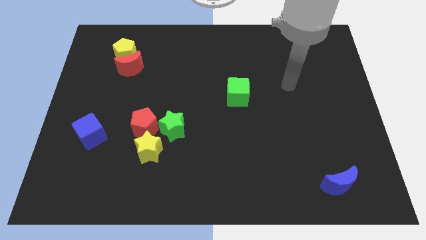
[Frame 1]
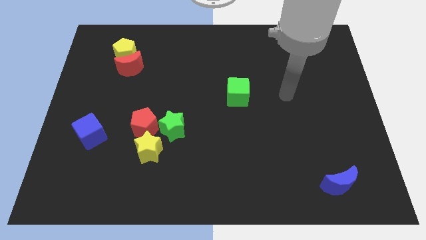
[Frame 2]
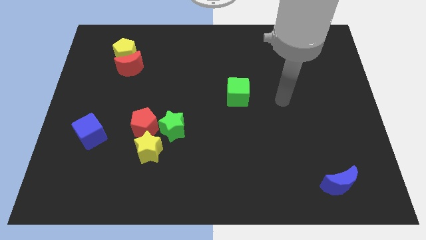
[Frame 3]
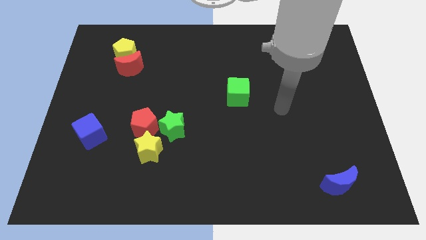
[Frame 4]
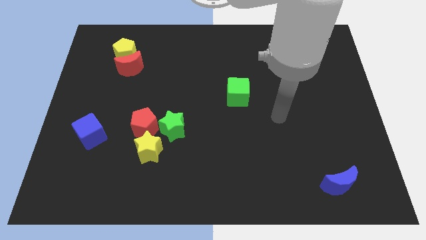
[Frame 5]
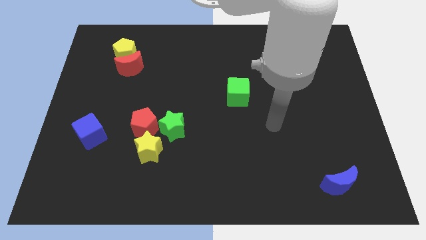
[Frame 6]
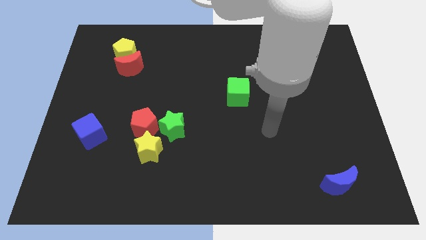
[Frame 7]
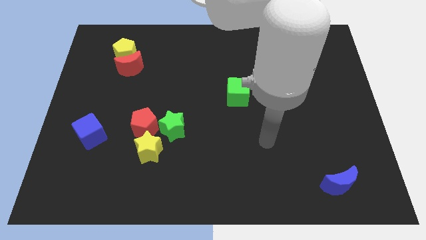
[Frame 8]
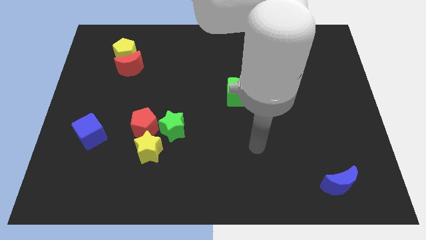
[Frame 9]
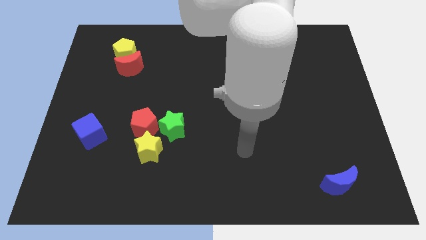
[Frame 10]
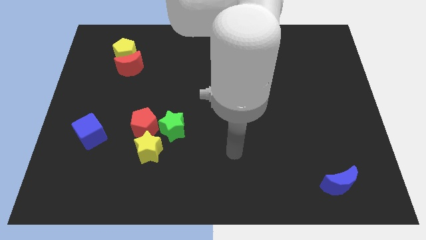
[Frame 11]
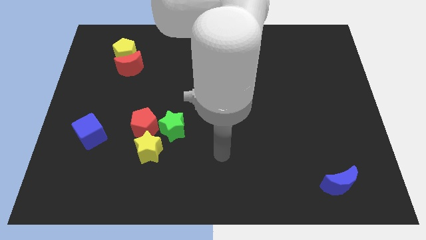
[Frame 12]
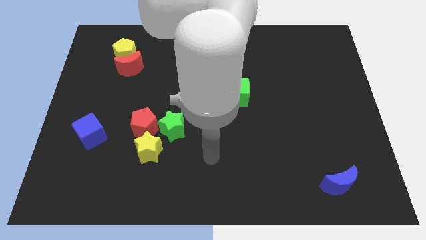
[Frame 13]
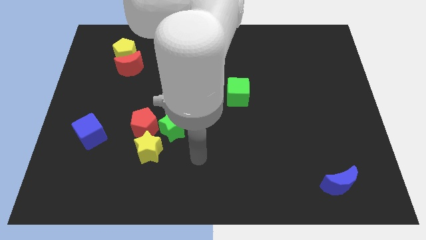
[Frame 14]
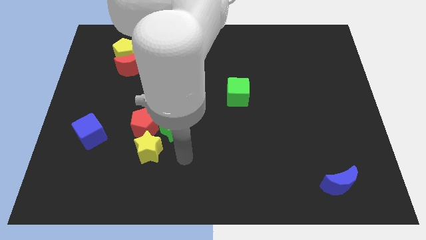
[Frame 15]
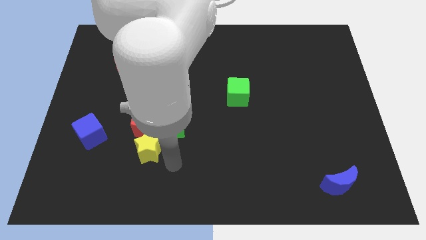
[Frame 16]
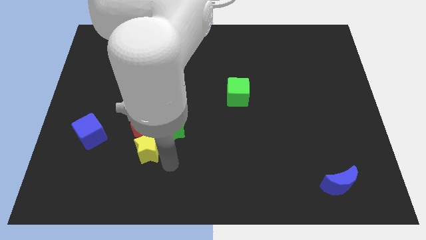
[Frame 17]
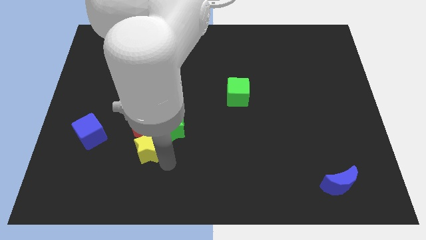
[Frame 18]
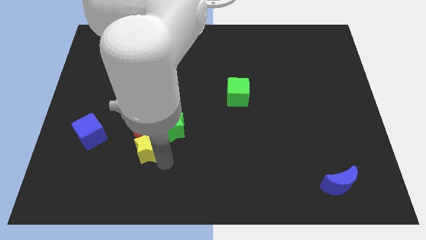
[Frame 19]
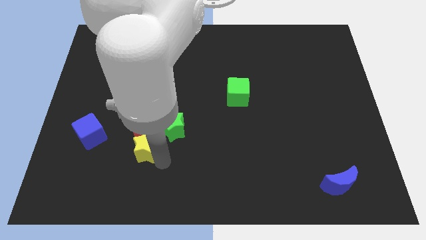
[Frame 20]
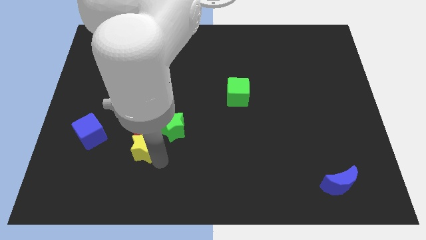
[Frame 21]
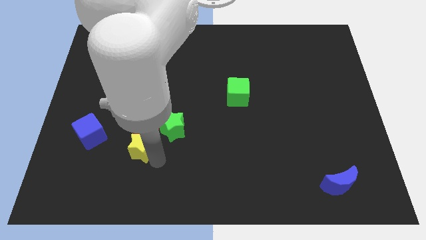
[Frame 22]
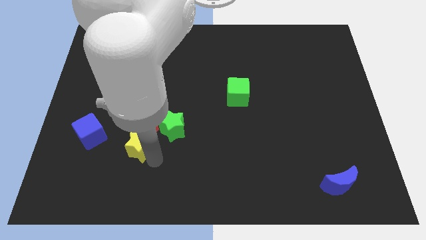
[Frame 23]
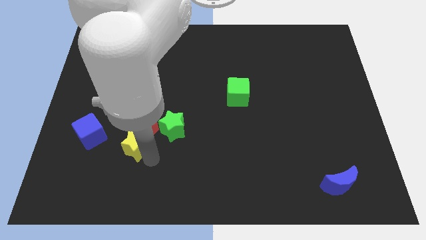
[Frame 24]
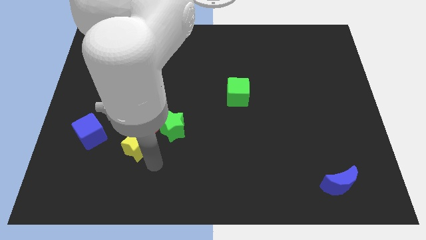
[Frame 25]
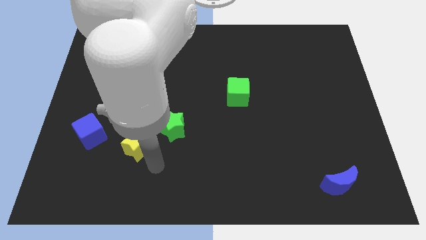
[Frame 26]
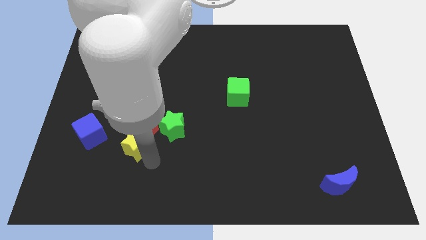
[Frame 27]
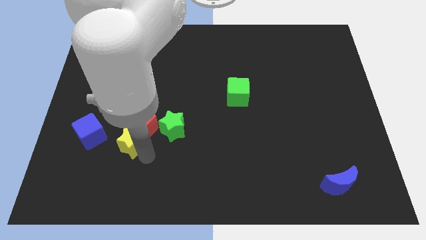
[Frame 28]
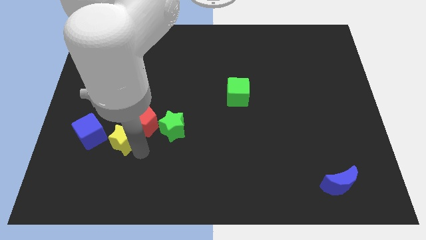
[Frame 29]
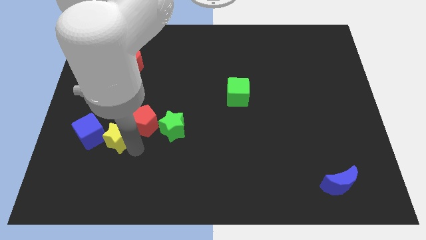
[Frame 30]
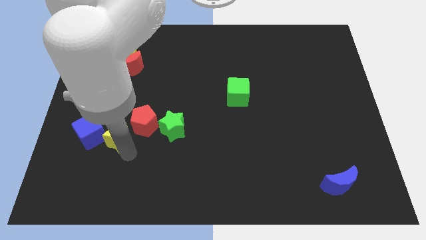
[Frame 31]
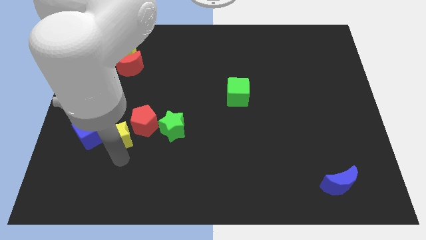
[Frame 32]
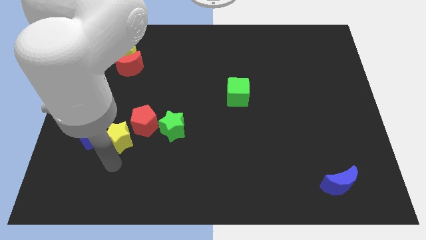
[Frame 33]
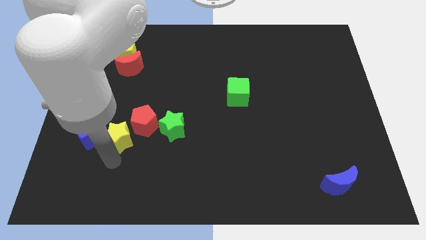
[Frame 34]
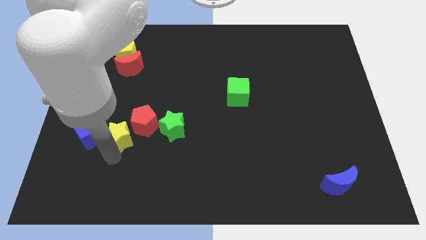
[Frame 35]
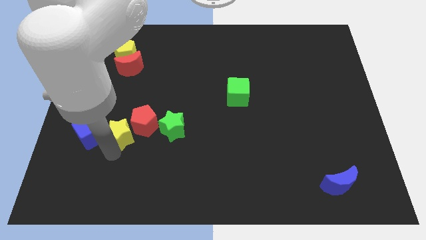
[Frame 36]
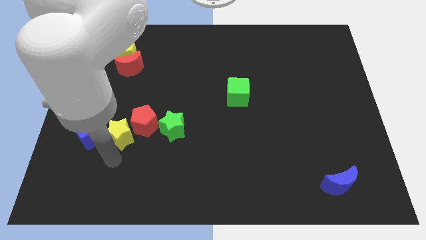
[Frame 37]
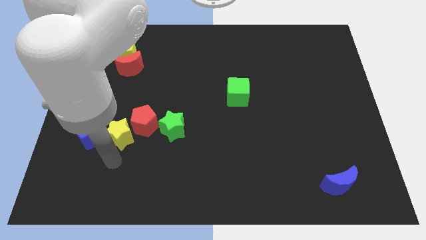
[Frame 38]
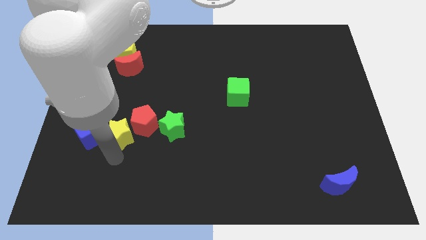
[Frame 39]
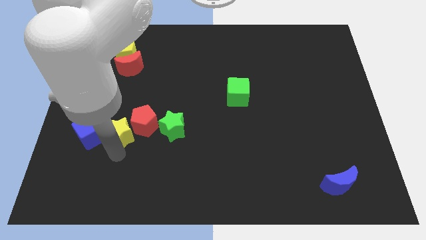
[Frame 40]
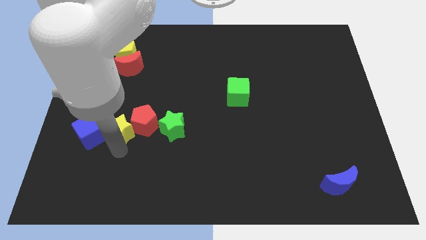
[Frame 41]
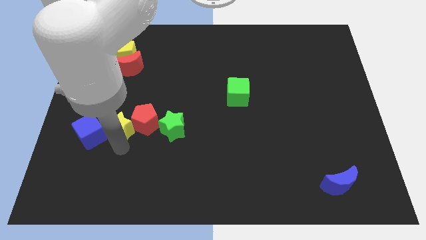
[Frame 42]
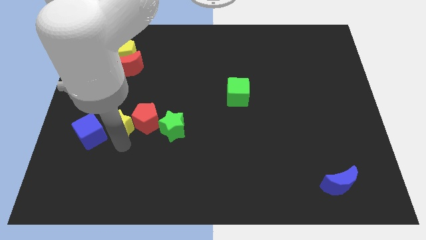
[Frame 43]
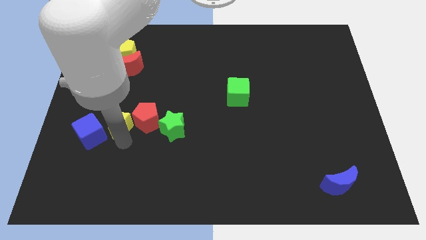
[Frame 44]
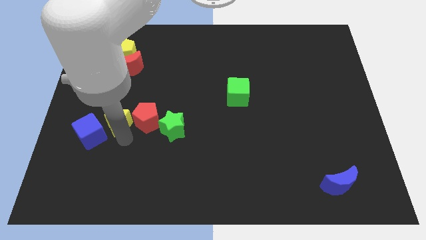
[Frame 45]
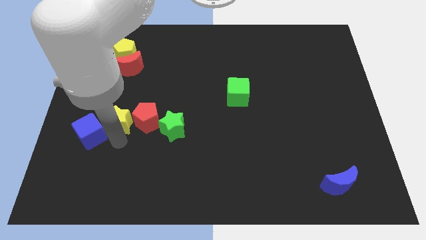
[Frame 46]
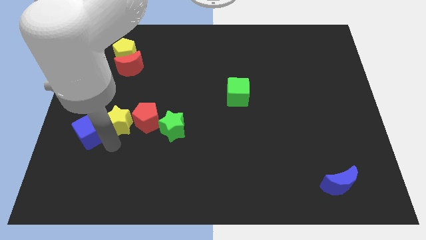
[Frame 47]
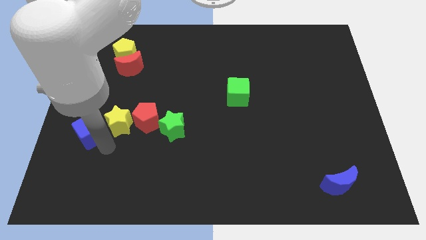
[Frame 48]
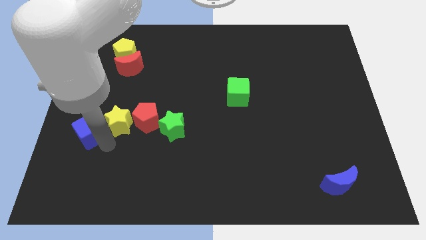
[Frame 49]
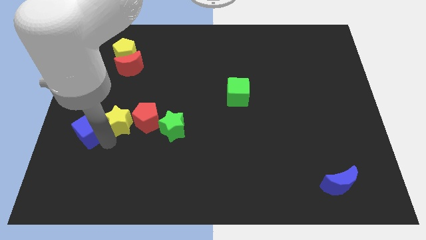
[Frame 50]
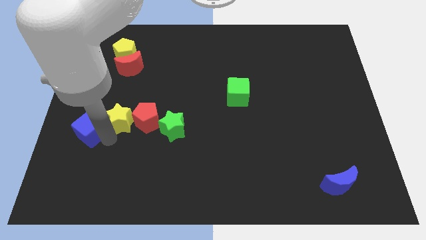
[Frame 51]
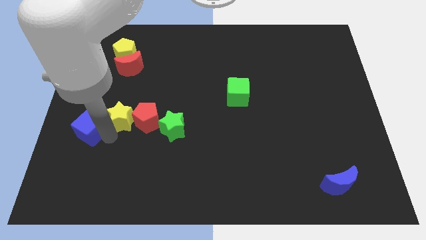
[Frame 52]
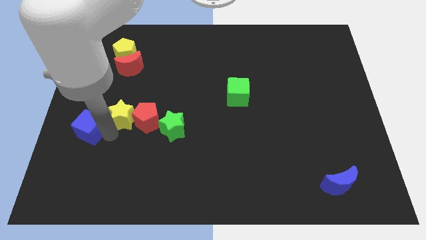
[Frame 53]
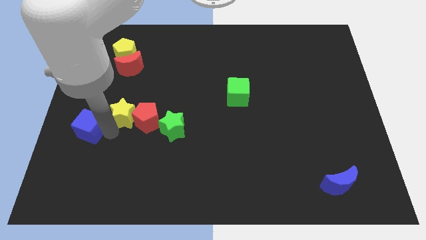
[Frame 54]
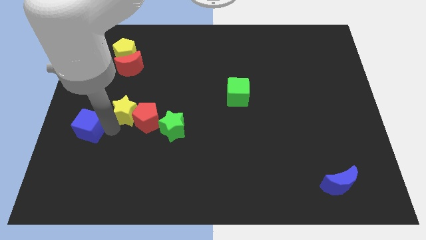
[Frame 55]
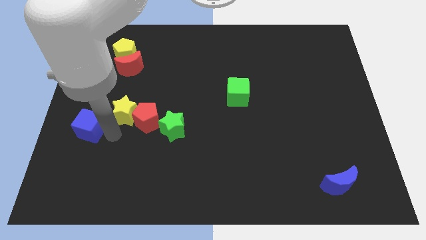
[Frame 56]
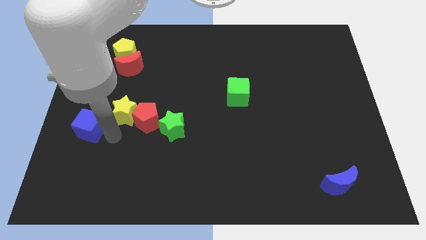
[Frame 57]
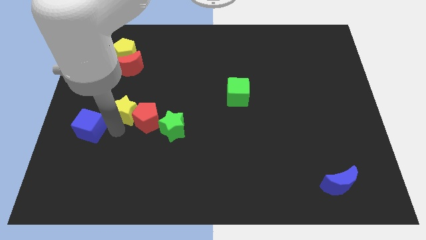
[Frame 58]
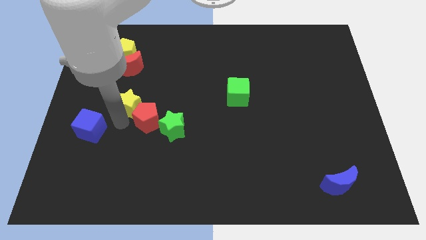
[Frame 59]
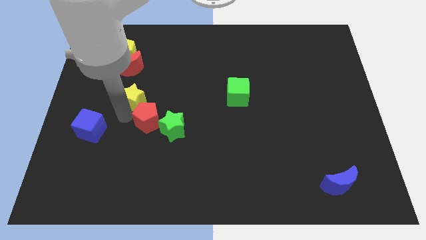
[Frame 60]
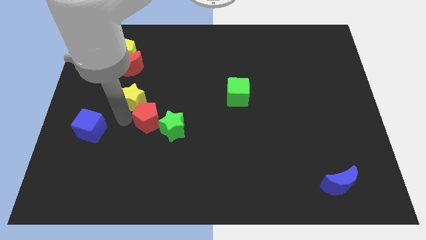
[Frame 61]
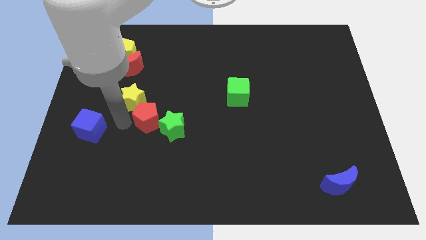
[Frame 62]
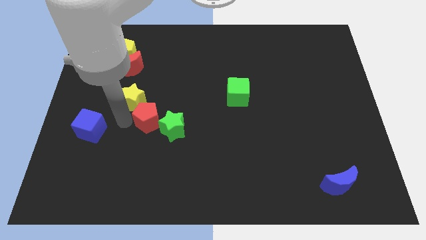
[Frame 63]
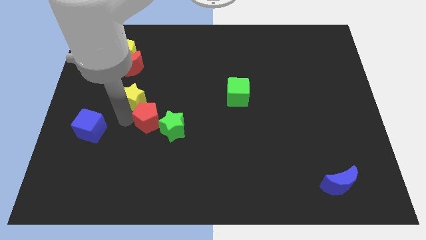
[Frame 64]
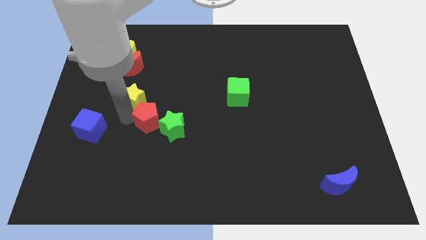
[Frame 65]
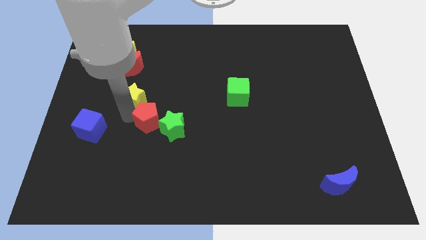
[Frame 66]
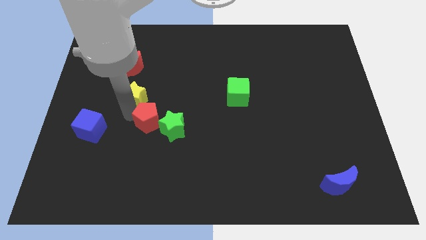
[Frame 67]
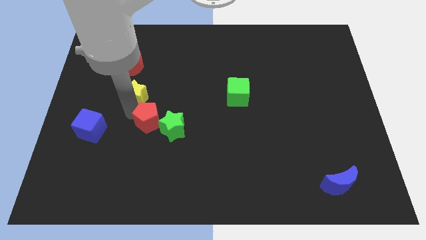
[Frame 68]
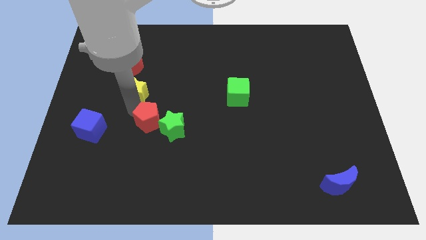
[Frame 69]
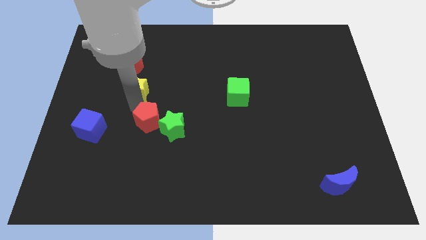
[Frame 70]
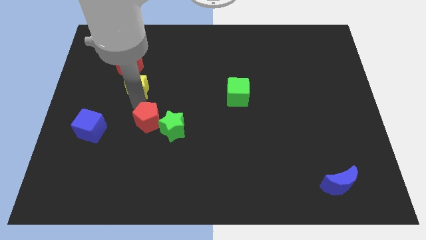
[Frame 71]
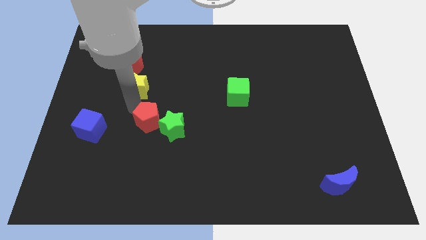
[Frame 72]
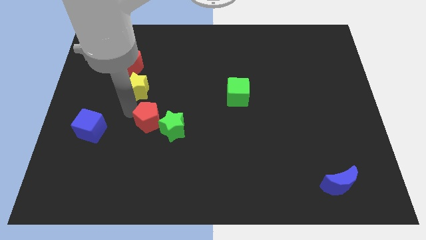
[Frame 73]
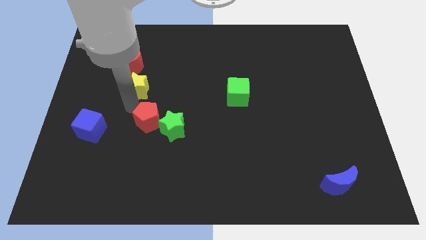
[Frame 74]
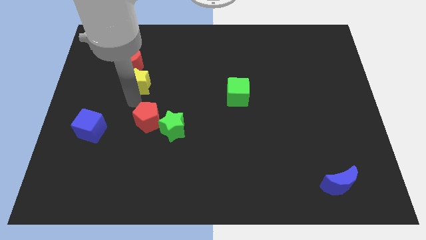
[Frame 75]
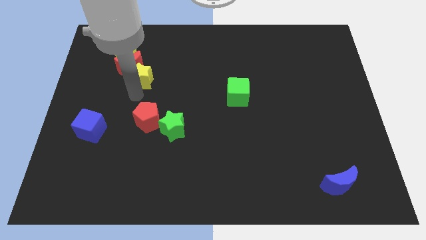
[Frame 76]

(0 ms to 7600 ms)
move the yellow star to the bottom right of the yellow pentagon
